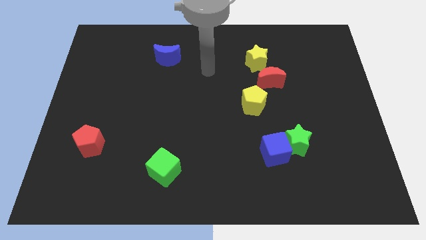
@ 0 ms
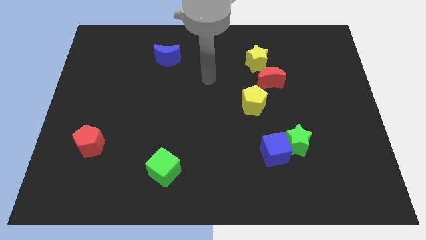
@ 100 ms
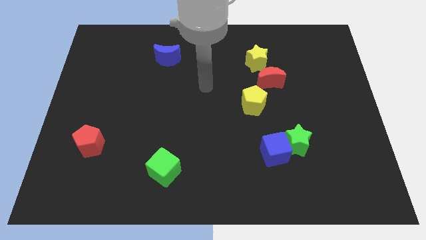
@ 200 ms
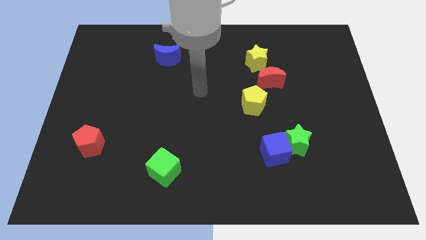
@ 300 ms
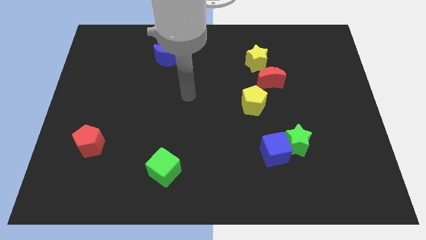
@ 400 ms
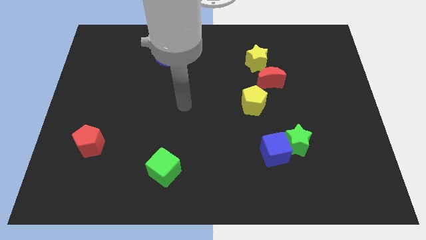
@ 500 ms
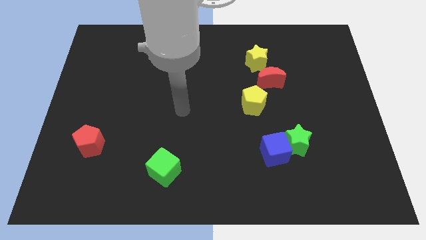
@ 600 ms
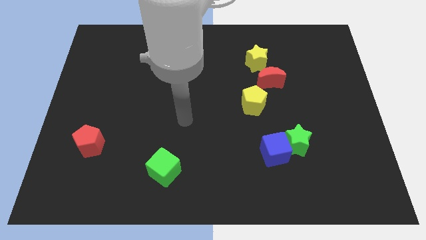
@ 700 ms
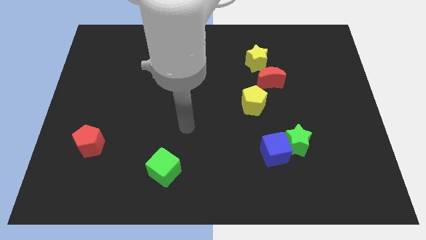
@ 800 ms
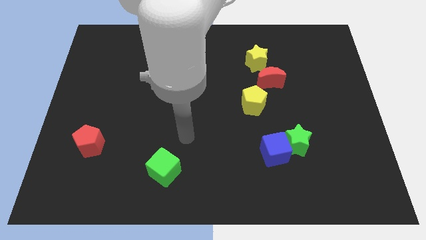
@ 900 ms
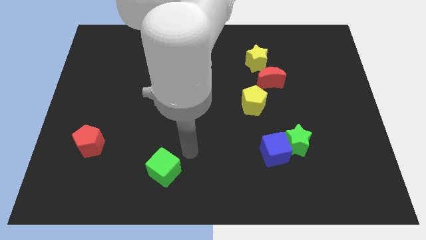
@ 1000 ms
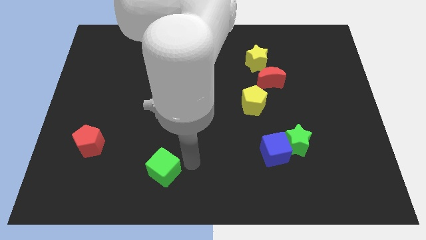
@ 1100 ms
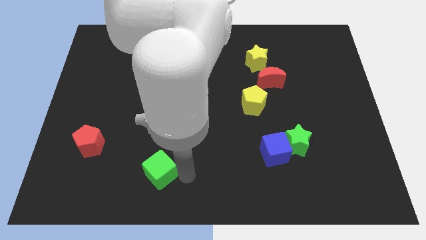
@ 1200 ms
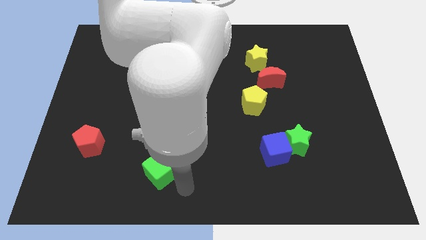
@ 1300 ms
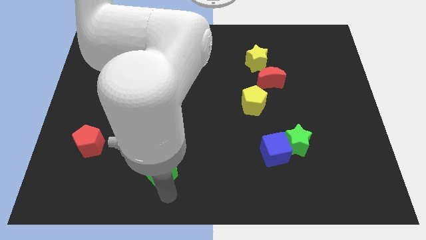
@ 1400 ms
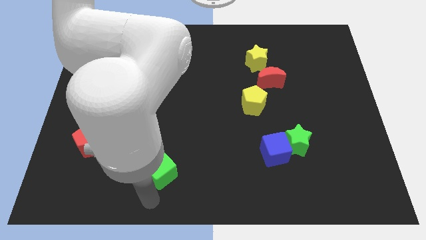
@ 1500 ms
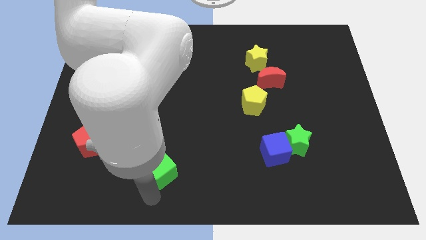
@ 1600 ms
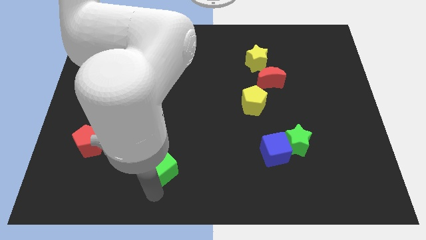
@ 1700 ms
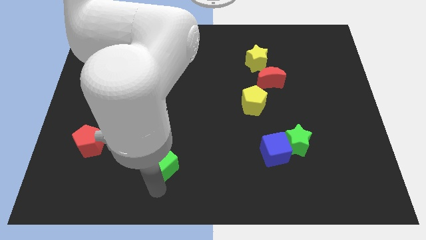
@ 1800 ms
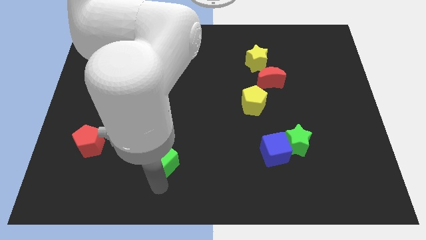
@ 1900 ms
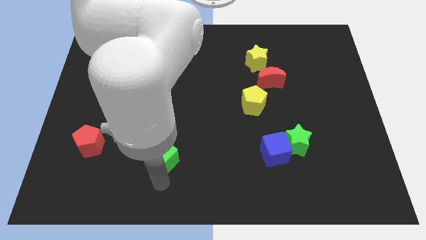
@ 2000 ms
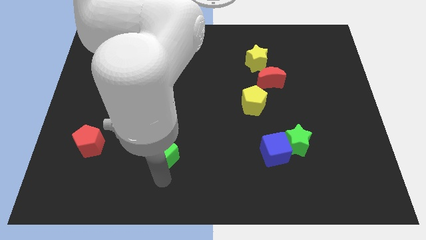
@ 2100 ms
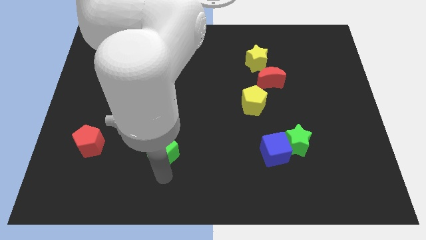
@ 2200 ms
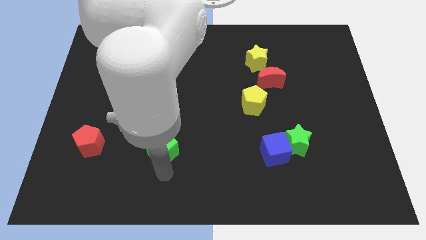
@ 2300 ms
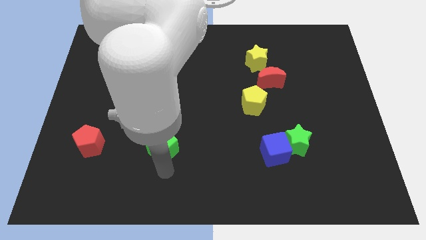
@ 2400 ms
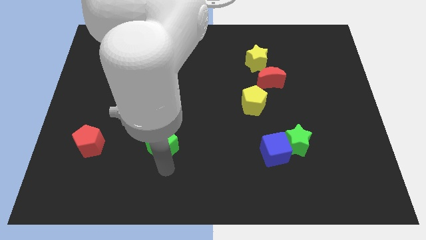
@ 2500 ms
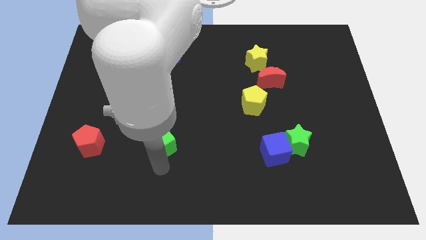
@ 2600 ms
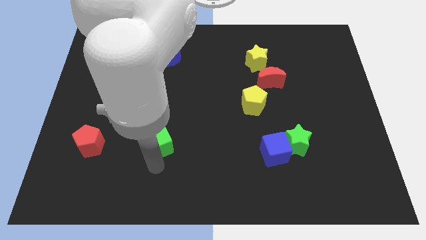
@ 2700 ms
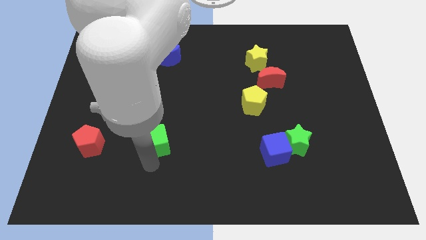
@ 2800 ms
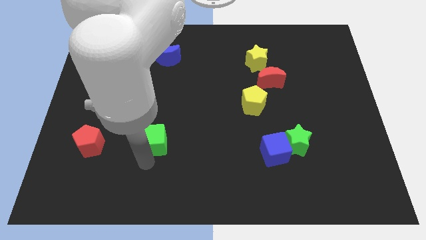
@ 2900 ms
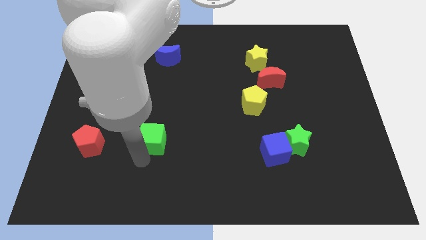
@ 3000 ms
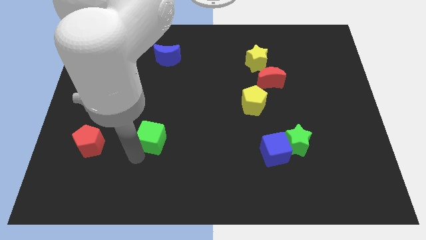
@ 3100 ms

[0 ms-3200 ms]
push the green cube a bit upwards

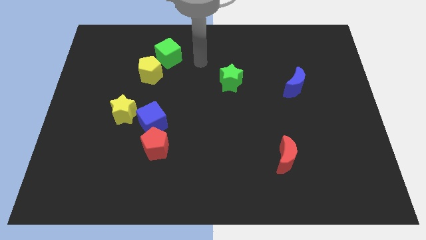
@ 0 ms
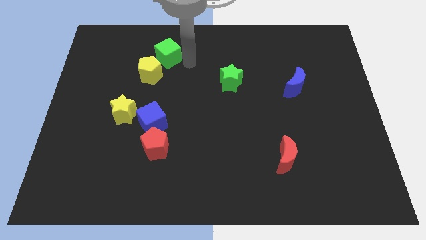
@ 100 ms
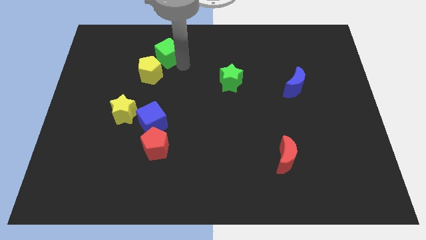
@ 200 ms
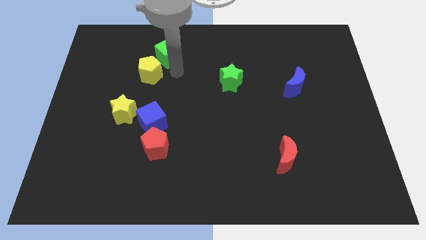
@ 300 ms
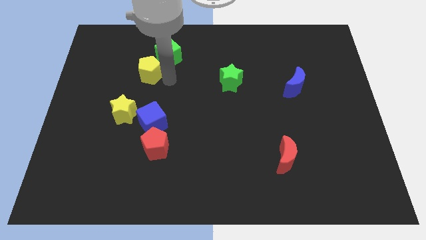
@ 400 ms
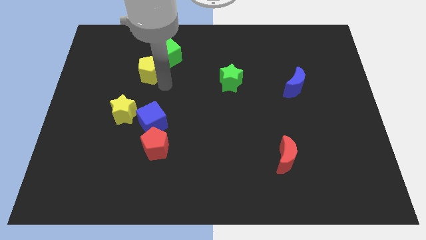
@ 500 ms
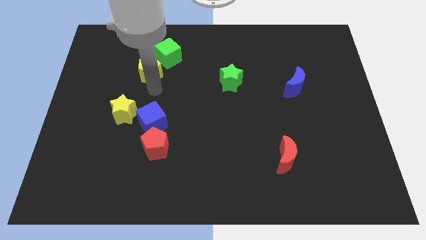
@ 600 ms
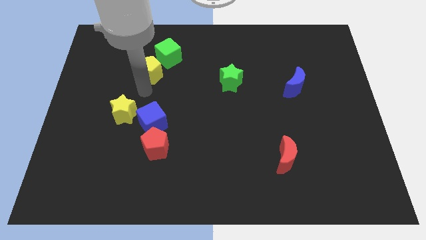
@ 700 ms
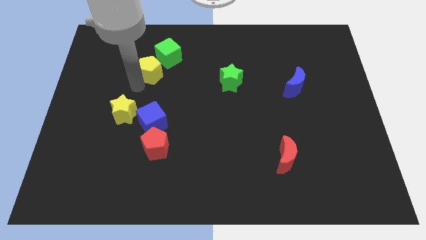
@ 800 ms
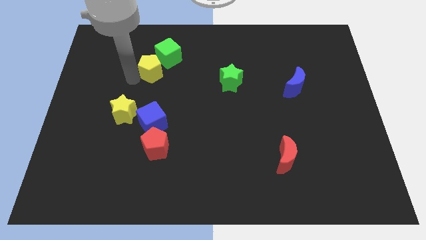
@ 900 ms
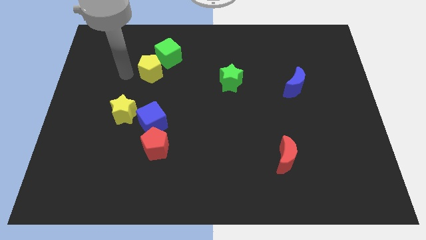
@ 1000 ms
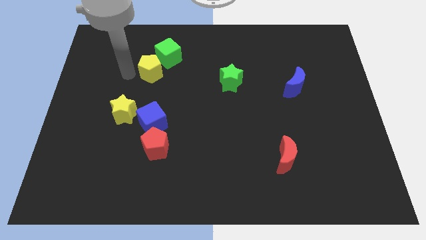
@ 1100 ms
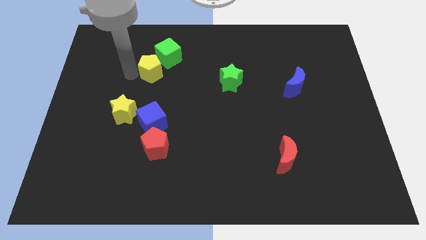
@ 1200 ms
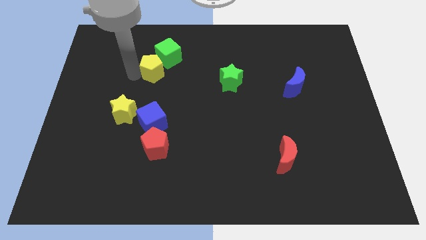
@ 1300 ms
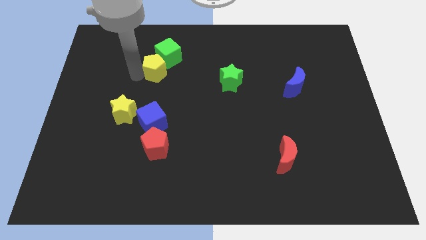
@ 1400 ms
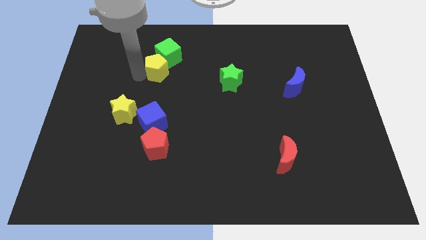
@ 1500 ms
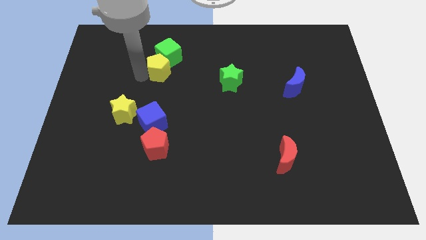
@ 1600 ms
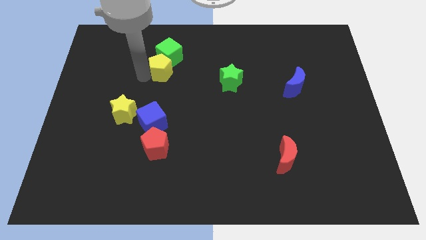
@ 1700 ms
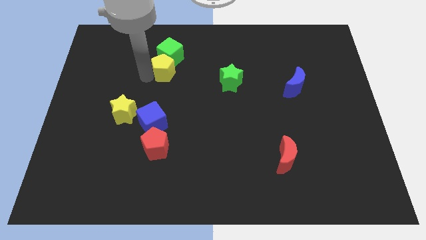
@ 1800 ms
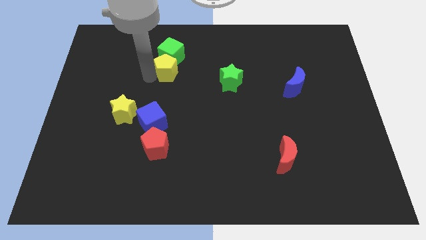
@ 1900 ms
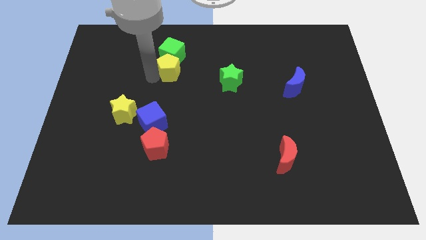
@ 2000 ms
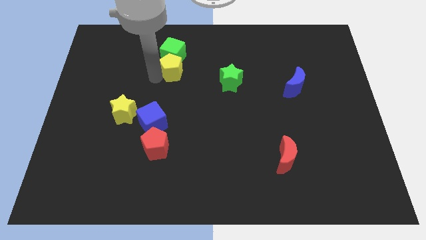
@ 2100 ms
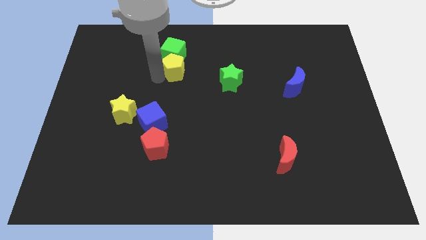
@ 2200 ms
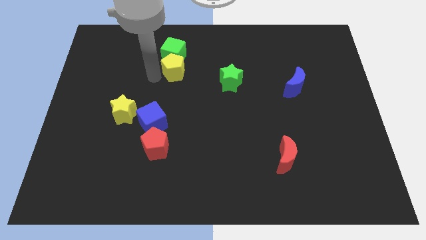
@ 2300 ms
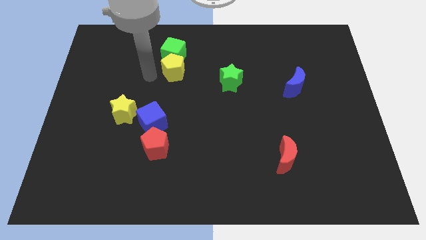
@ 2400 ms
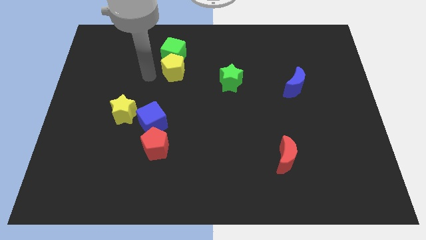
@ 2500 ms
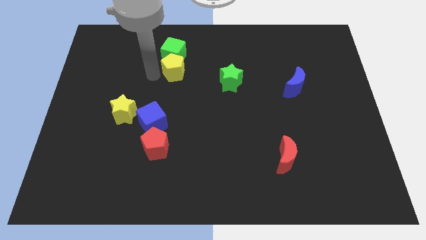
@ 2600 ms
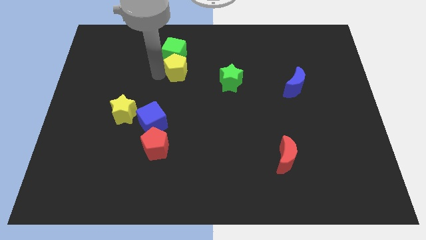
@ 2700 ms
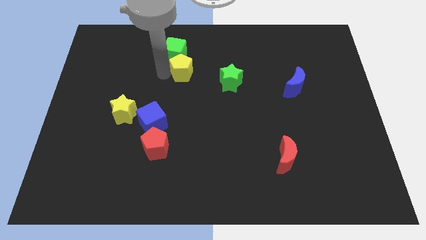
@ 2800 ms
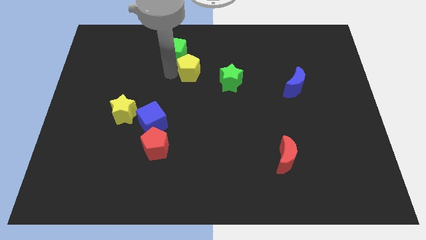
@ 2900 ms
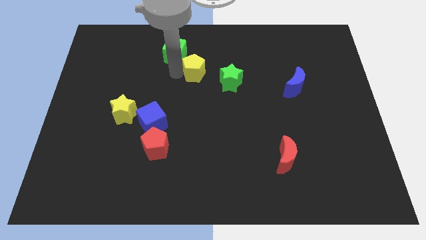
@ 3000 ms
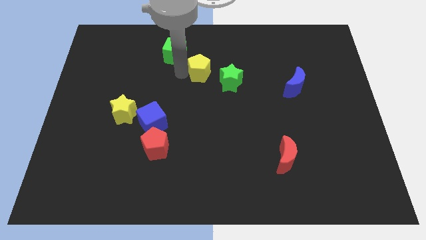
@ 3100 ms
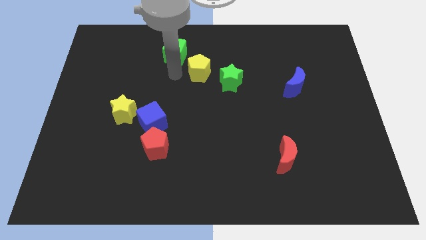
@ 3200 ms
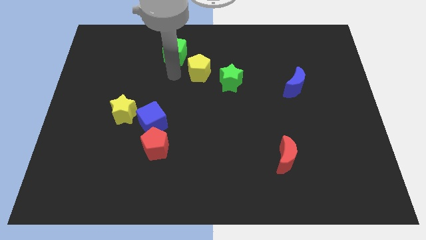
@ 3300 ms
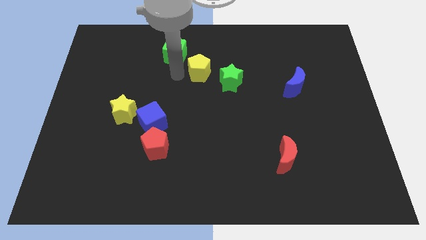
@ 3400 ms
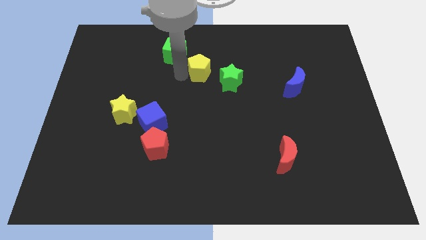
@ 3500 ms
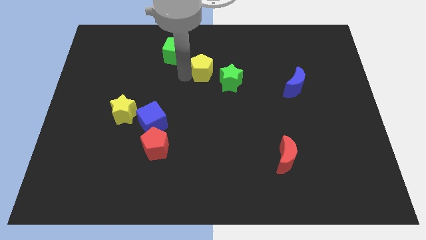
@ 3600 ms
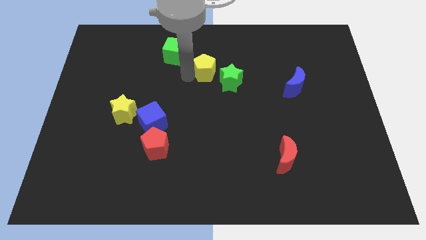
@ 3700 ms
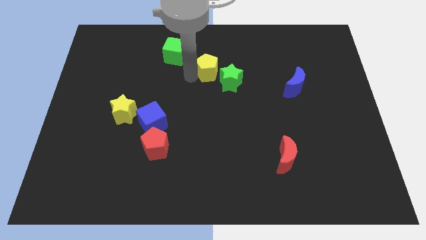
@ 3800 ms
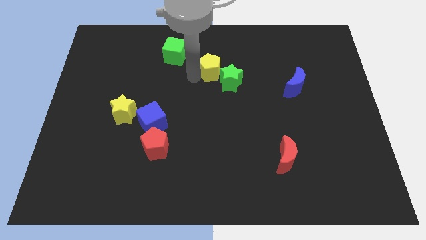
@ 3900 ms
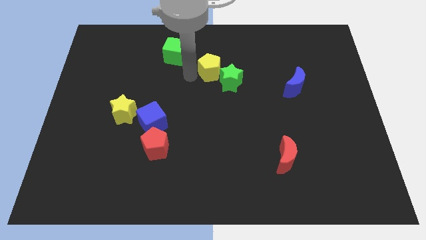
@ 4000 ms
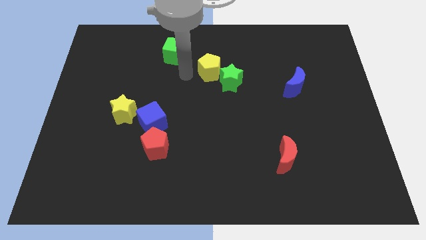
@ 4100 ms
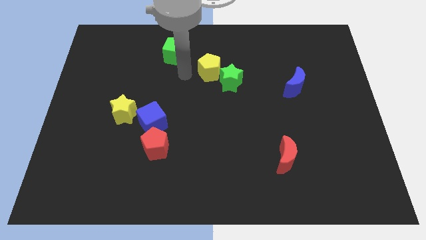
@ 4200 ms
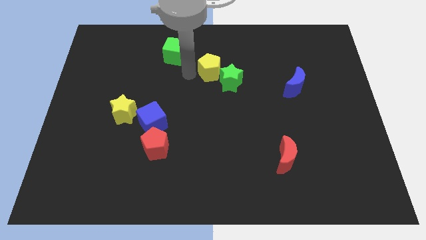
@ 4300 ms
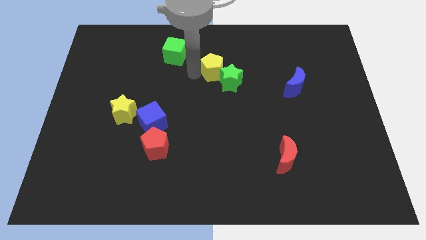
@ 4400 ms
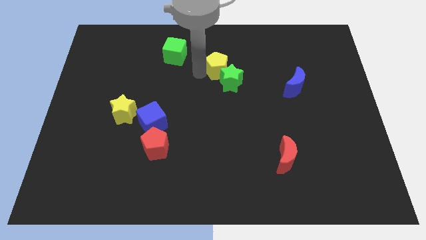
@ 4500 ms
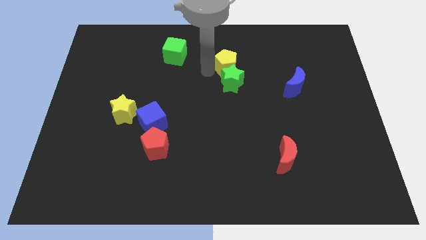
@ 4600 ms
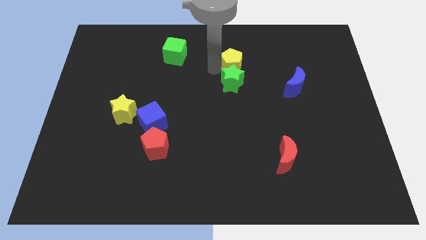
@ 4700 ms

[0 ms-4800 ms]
move the yellow pentagon to the right

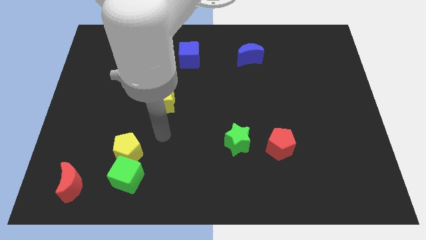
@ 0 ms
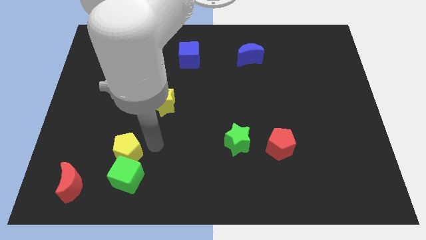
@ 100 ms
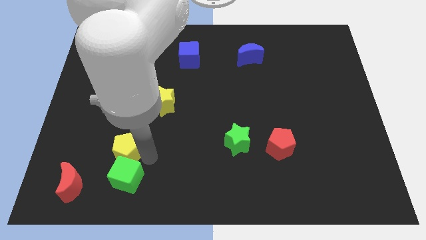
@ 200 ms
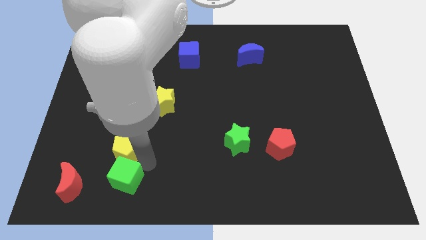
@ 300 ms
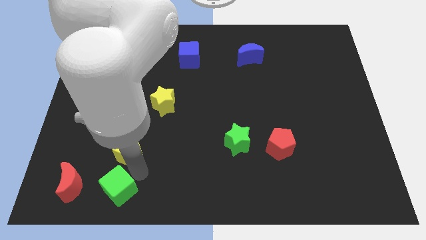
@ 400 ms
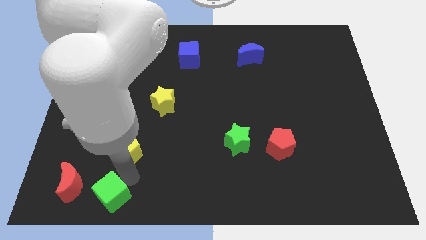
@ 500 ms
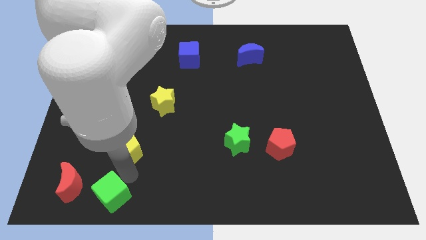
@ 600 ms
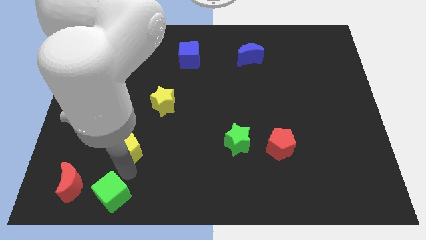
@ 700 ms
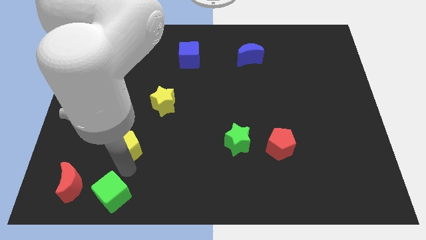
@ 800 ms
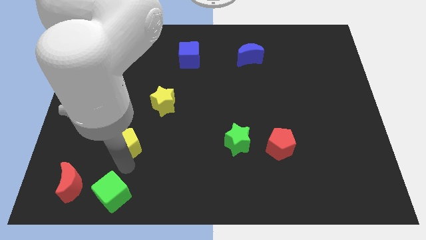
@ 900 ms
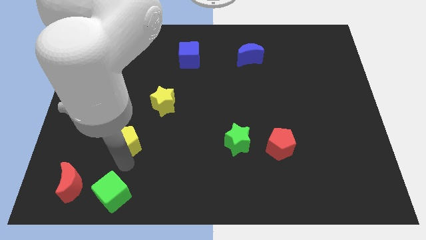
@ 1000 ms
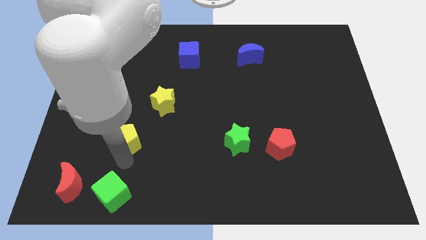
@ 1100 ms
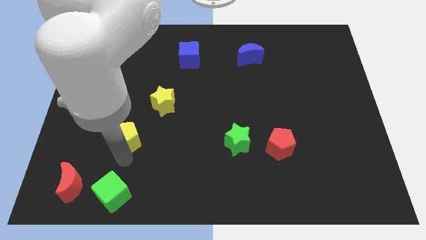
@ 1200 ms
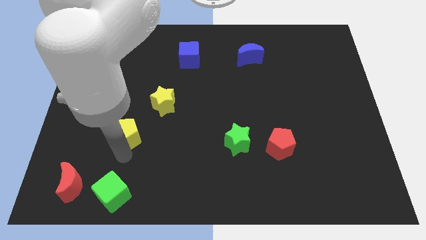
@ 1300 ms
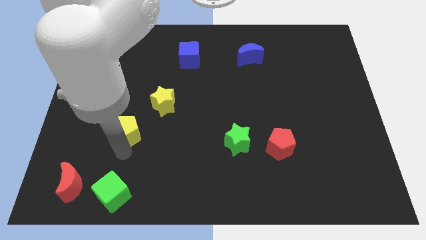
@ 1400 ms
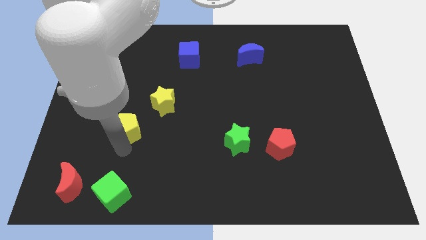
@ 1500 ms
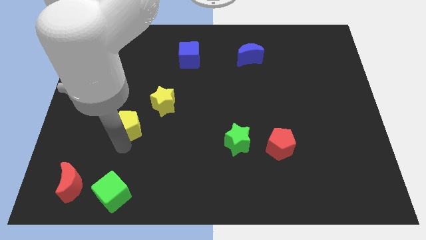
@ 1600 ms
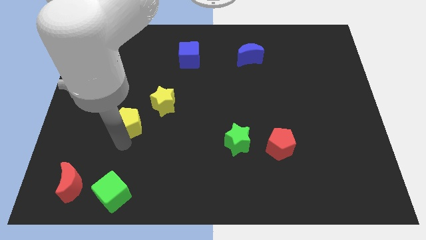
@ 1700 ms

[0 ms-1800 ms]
slightly move the yellow pentagon up
